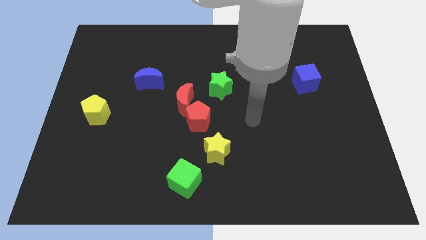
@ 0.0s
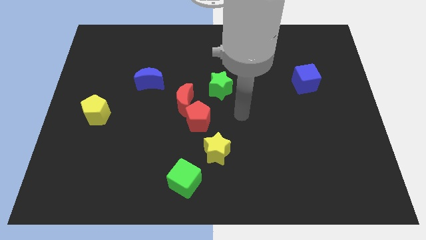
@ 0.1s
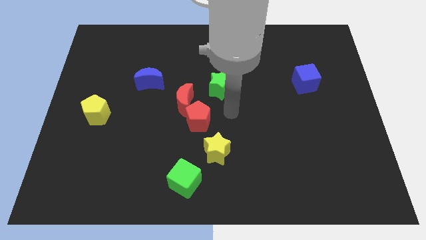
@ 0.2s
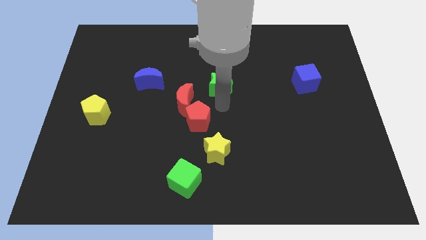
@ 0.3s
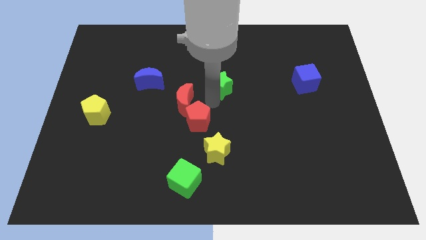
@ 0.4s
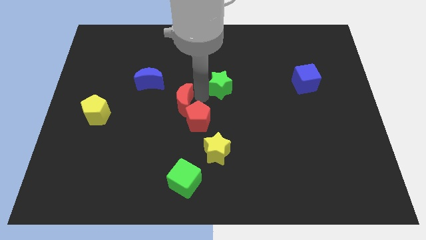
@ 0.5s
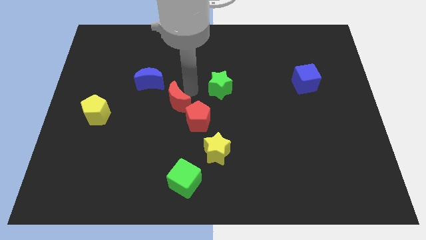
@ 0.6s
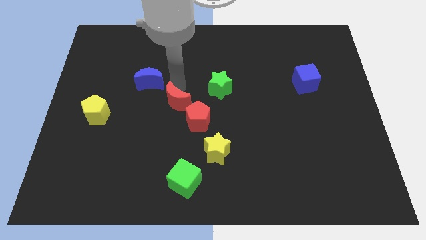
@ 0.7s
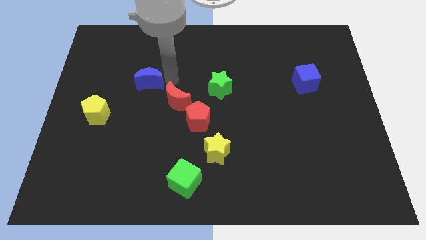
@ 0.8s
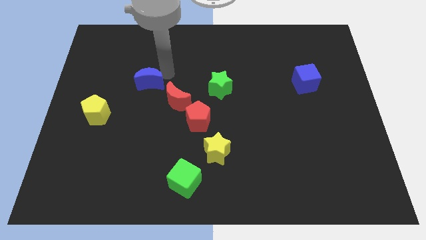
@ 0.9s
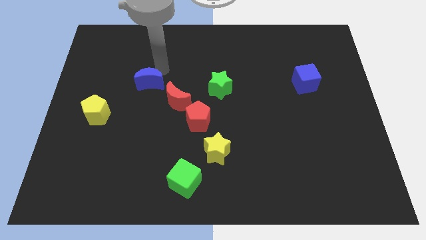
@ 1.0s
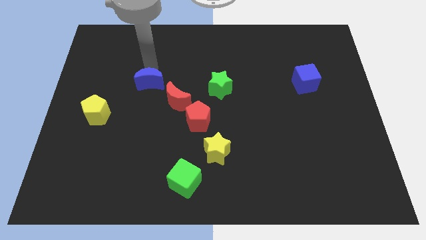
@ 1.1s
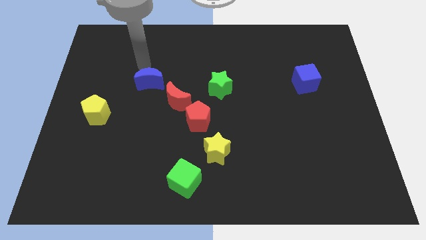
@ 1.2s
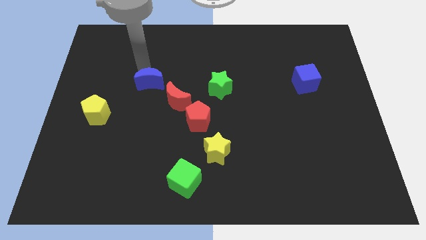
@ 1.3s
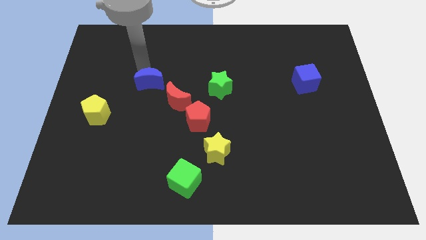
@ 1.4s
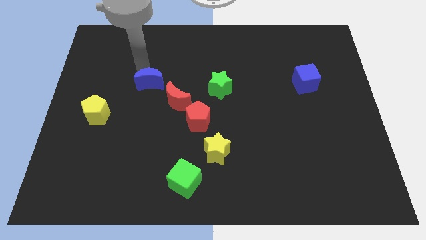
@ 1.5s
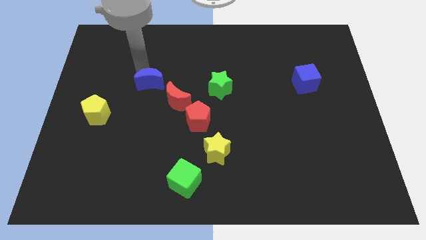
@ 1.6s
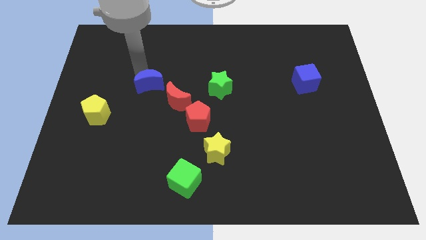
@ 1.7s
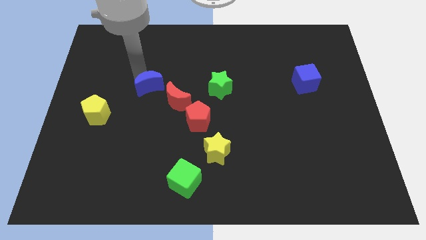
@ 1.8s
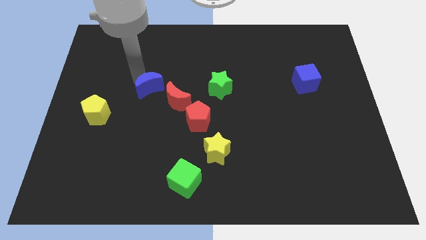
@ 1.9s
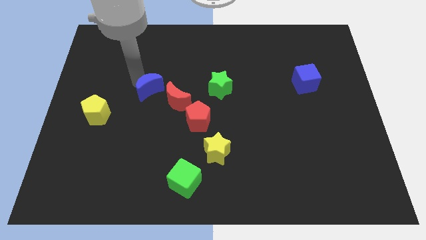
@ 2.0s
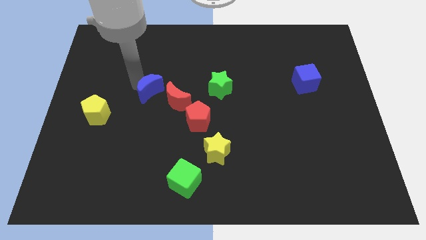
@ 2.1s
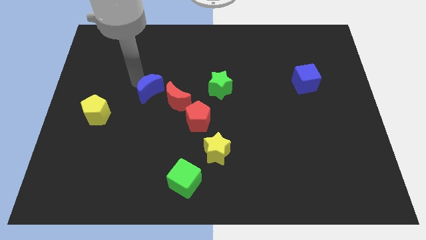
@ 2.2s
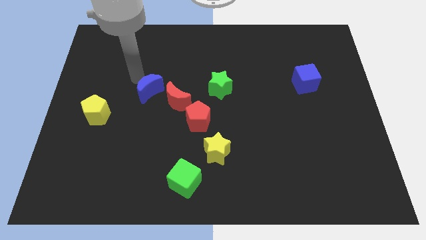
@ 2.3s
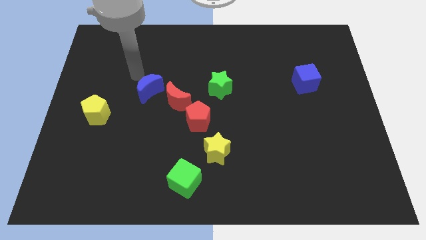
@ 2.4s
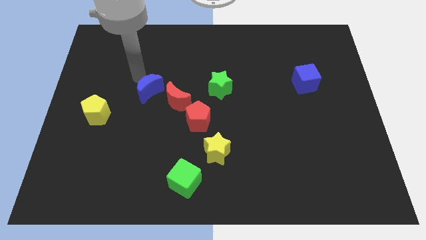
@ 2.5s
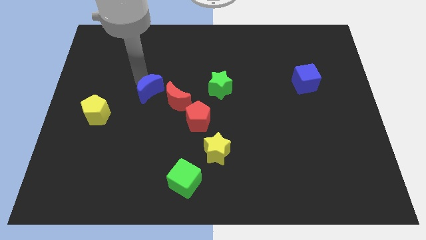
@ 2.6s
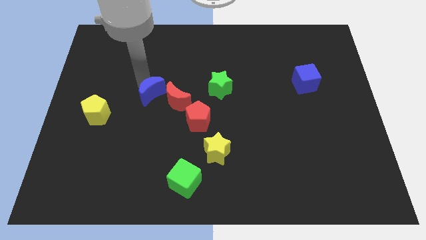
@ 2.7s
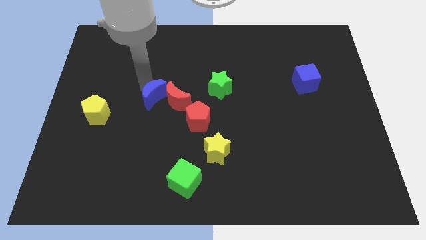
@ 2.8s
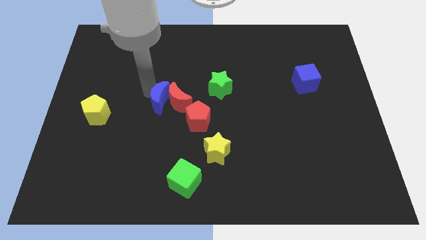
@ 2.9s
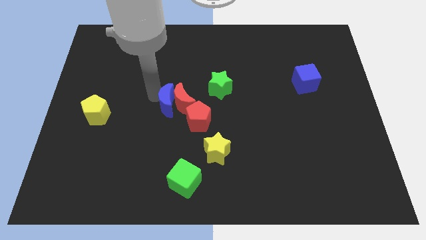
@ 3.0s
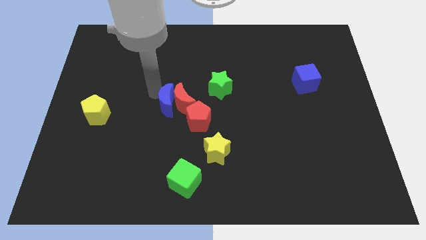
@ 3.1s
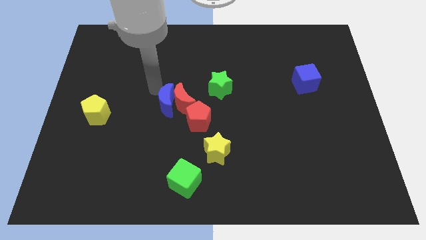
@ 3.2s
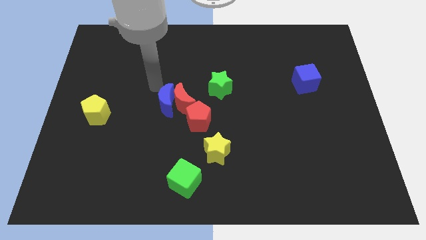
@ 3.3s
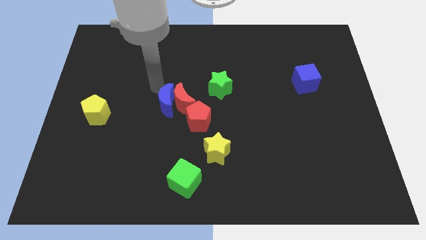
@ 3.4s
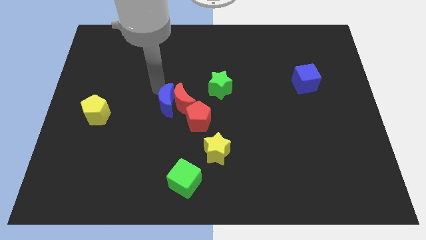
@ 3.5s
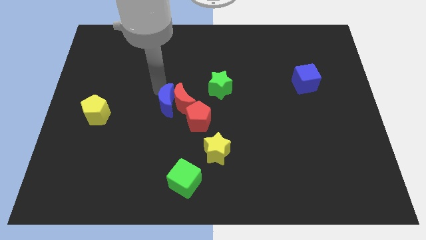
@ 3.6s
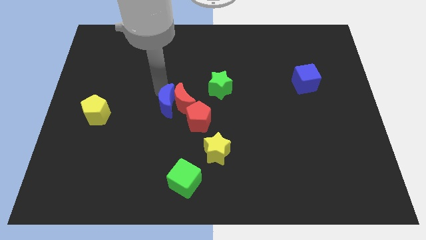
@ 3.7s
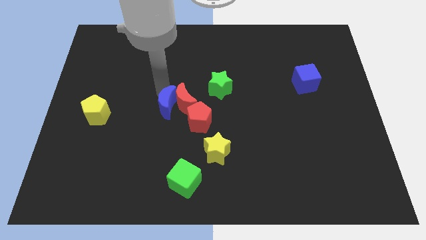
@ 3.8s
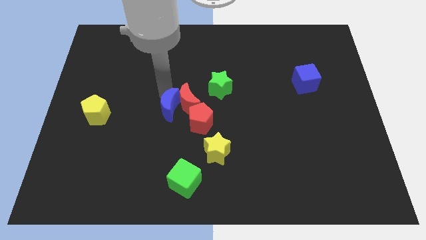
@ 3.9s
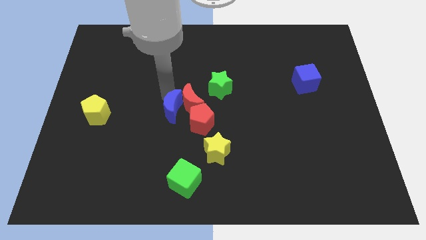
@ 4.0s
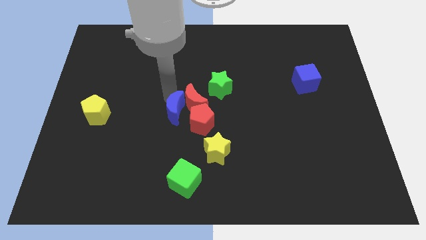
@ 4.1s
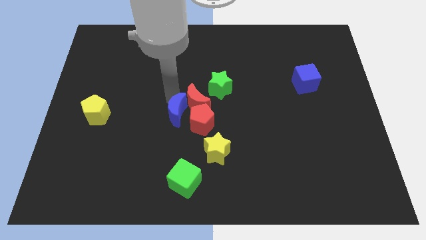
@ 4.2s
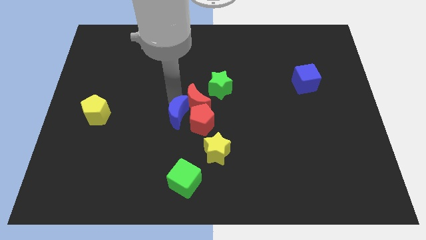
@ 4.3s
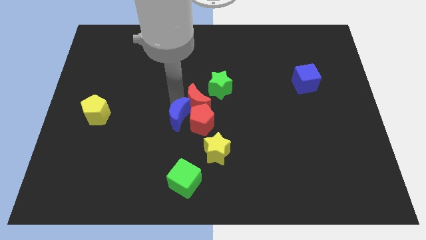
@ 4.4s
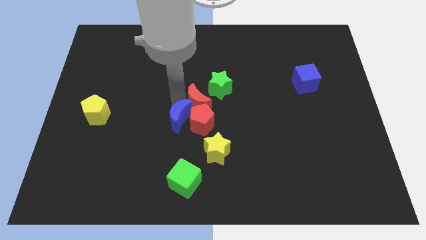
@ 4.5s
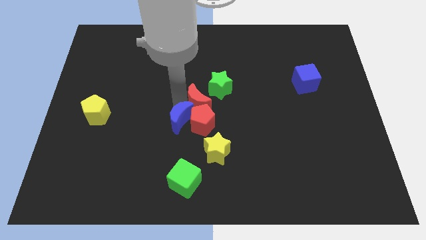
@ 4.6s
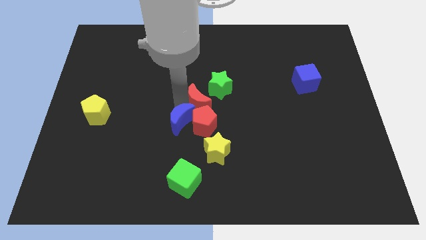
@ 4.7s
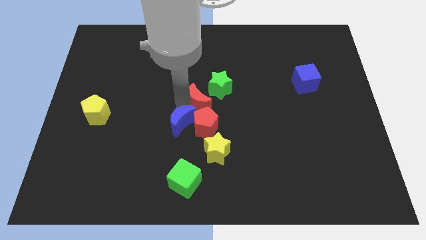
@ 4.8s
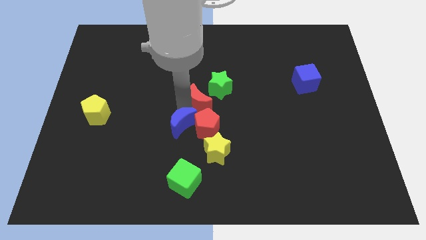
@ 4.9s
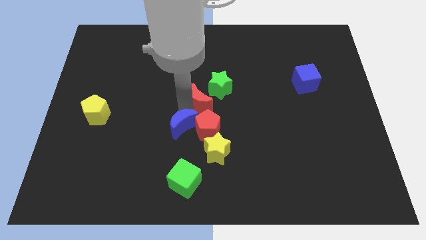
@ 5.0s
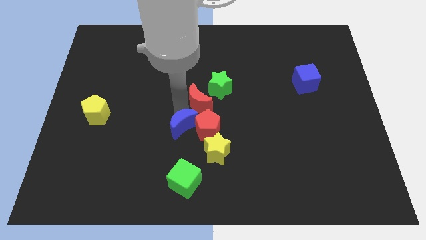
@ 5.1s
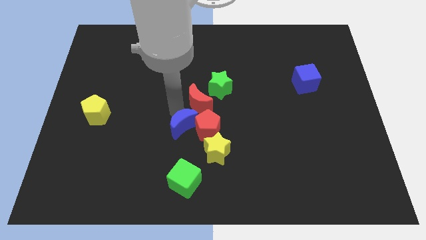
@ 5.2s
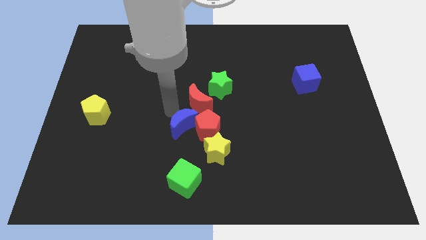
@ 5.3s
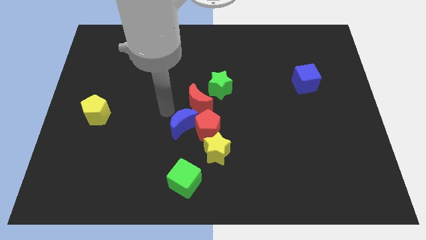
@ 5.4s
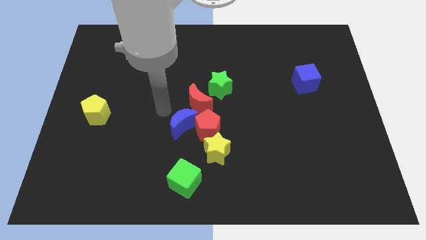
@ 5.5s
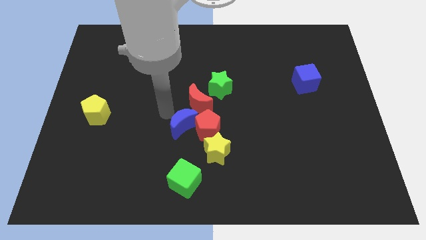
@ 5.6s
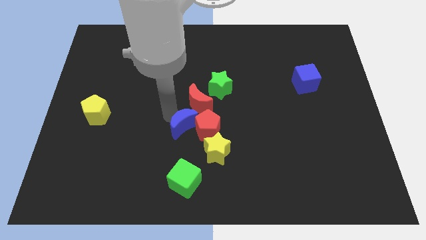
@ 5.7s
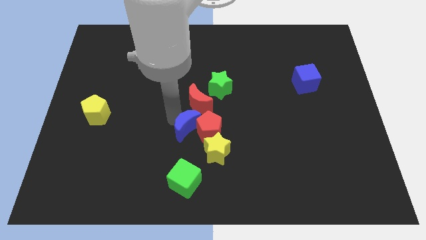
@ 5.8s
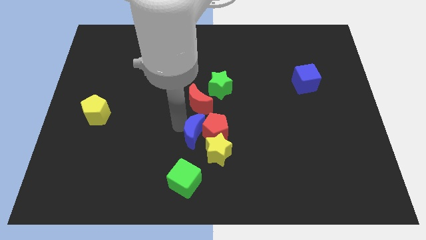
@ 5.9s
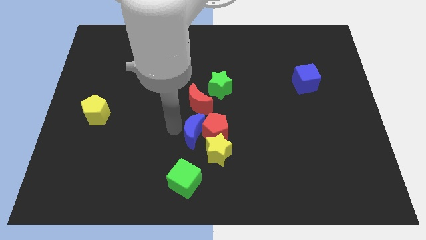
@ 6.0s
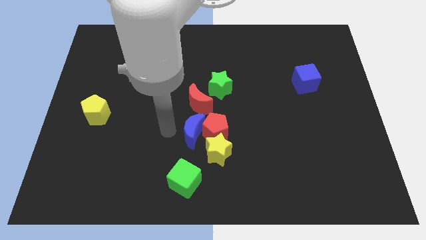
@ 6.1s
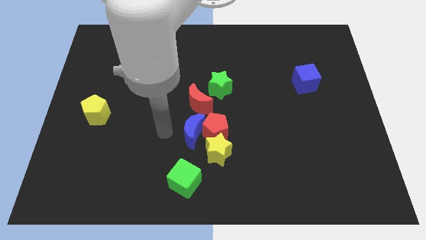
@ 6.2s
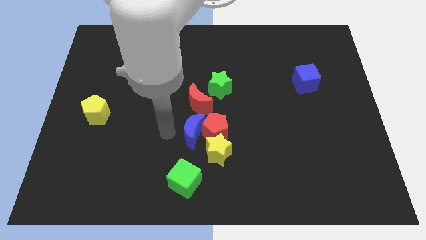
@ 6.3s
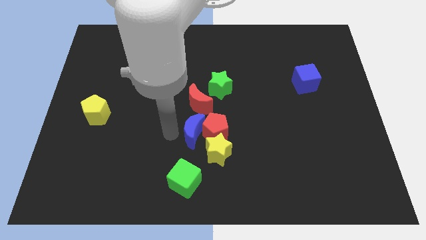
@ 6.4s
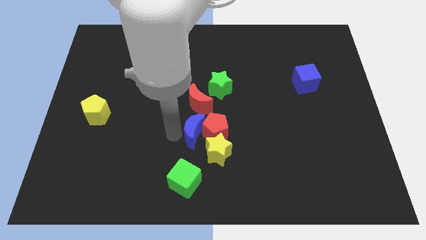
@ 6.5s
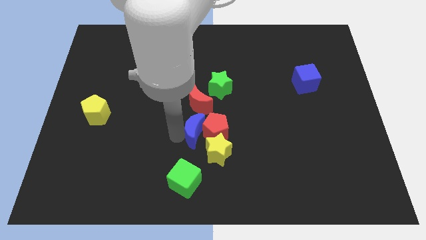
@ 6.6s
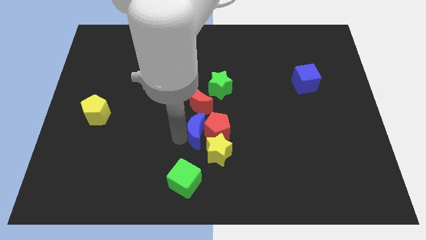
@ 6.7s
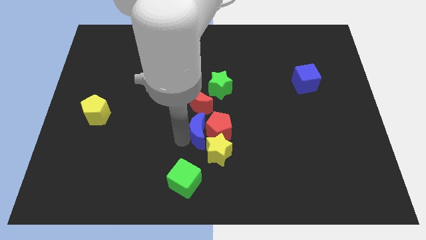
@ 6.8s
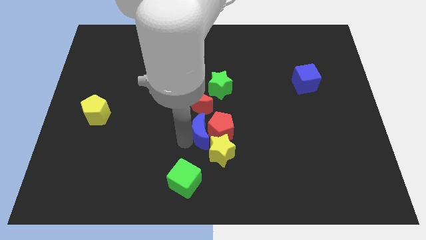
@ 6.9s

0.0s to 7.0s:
push the blue moon down and right

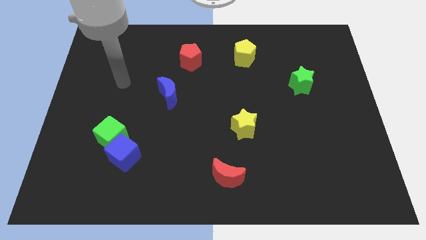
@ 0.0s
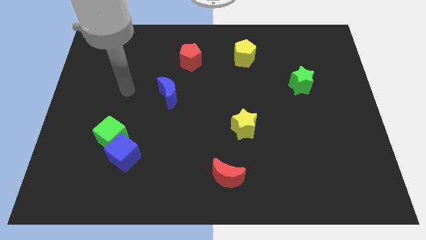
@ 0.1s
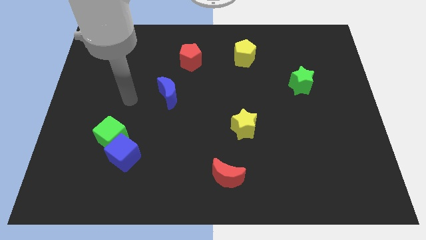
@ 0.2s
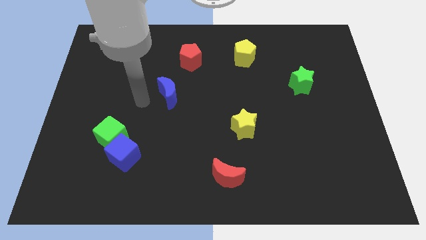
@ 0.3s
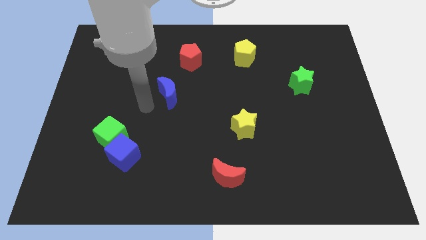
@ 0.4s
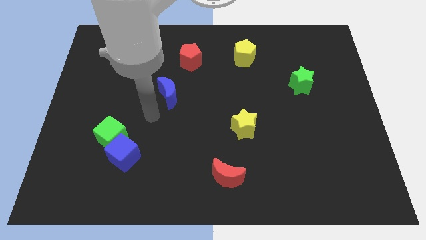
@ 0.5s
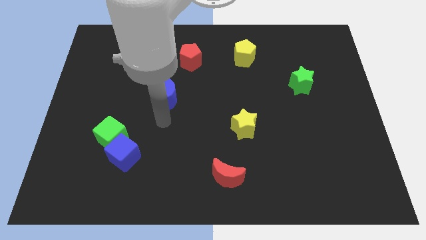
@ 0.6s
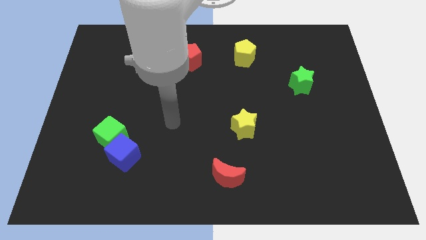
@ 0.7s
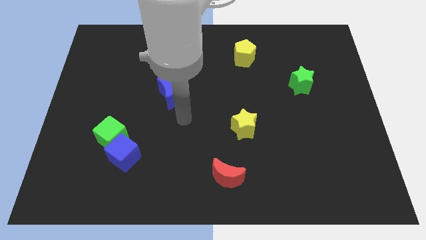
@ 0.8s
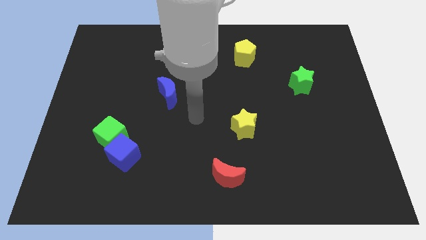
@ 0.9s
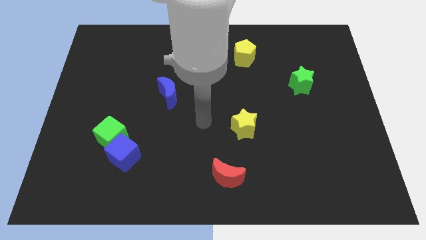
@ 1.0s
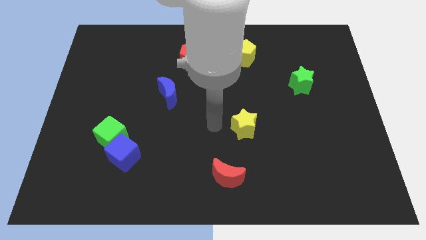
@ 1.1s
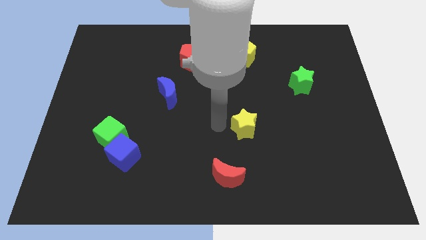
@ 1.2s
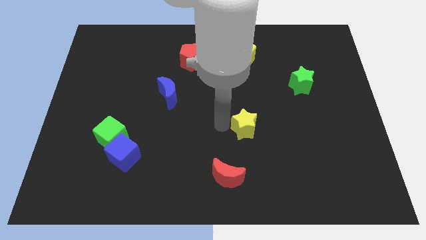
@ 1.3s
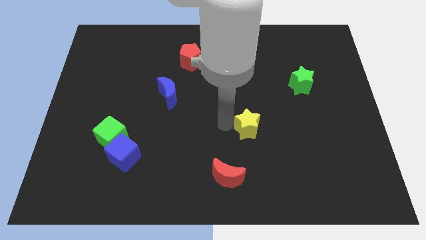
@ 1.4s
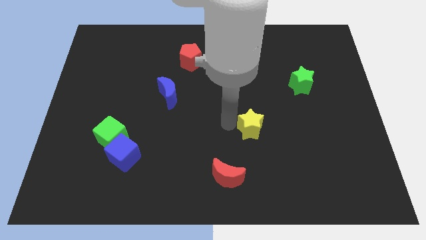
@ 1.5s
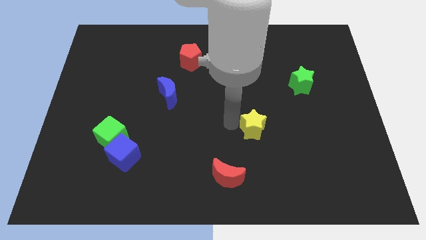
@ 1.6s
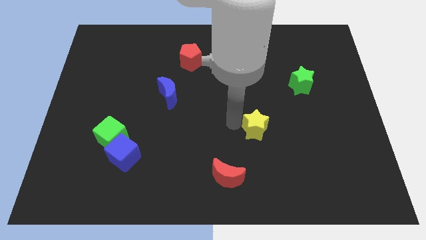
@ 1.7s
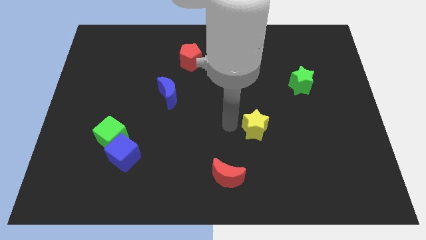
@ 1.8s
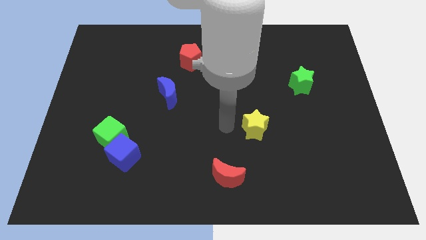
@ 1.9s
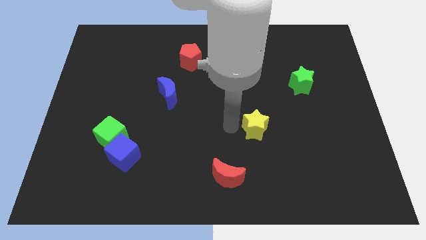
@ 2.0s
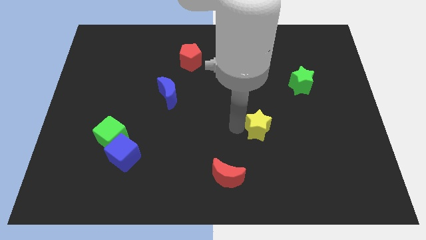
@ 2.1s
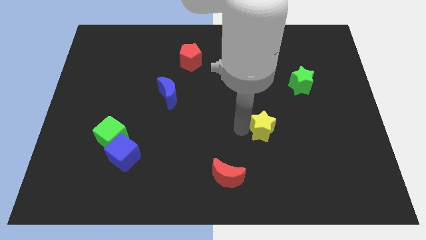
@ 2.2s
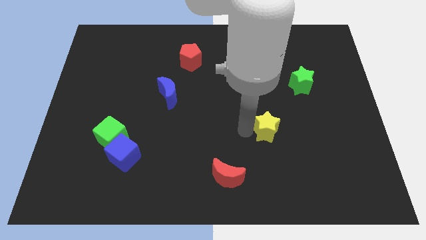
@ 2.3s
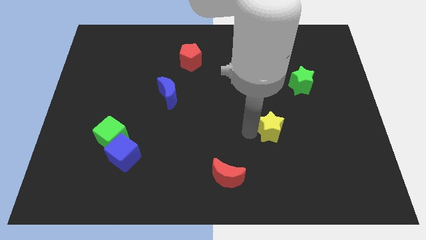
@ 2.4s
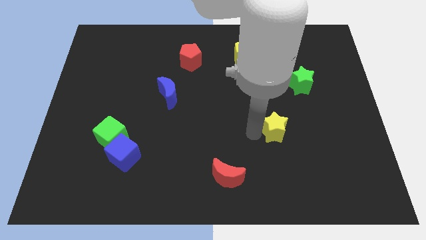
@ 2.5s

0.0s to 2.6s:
slide the yellow star to the right a little bit
